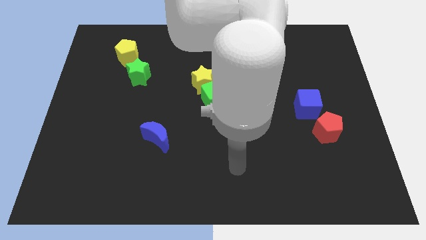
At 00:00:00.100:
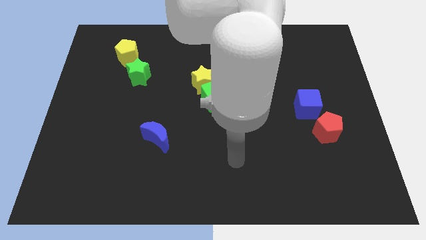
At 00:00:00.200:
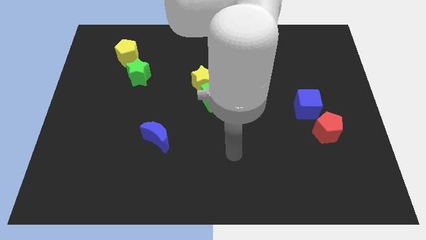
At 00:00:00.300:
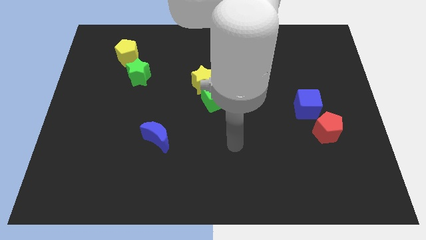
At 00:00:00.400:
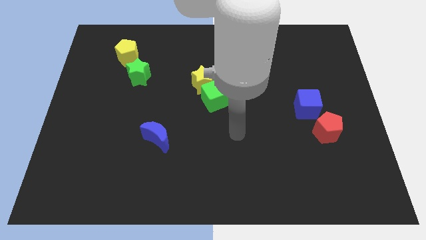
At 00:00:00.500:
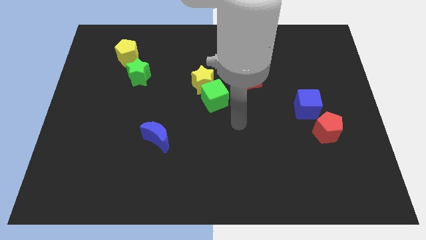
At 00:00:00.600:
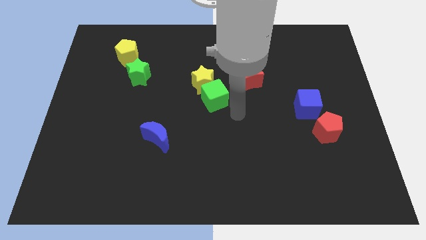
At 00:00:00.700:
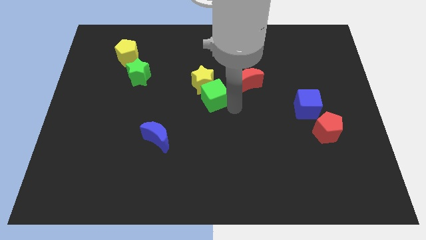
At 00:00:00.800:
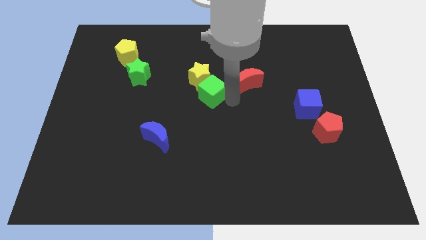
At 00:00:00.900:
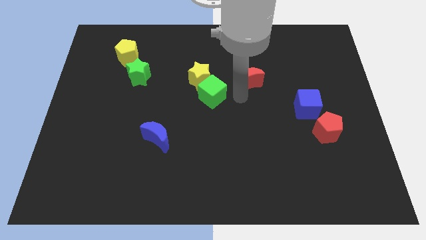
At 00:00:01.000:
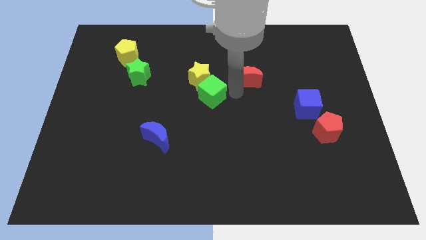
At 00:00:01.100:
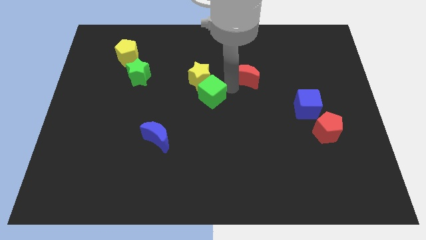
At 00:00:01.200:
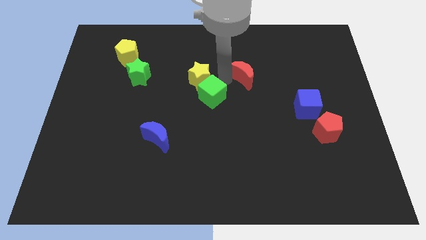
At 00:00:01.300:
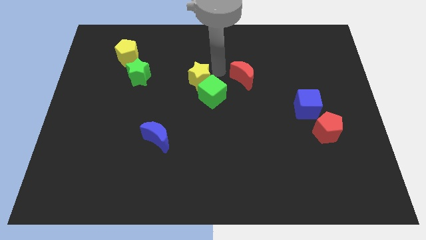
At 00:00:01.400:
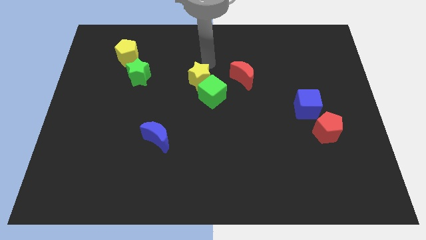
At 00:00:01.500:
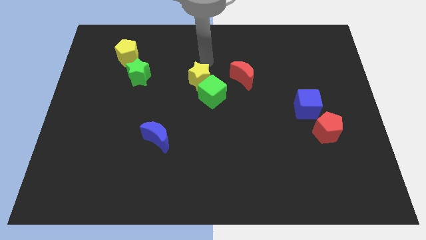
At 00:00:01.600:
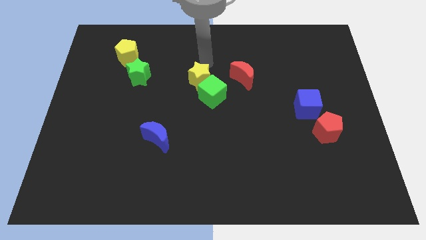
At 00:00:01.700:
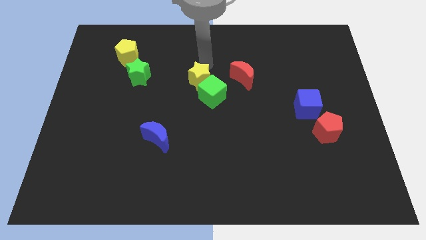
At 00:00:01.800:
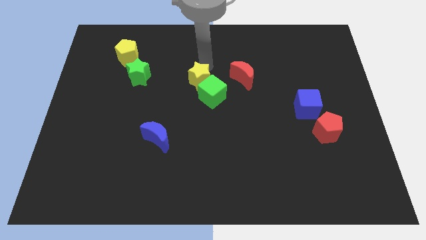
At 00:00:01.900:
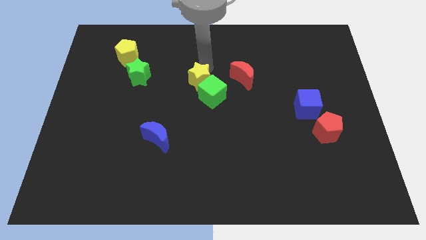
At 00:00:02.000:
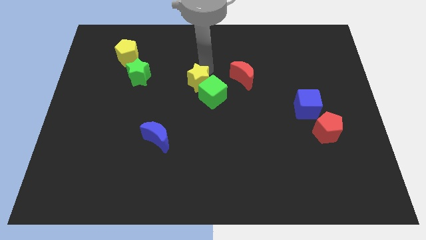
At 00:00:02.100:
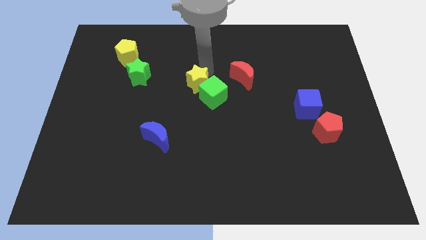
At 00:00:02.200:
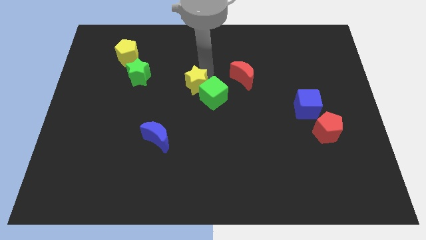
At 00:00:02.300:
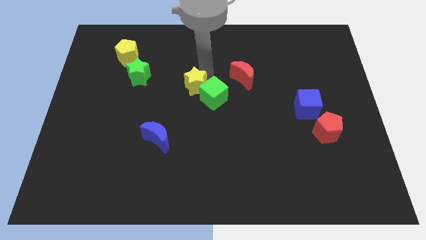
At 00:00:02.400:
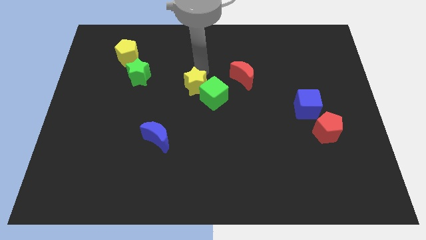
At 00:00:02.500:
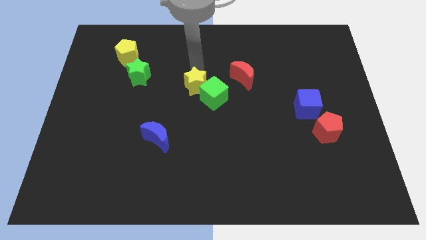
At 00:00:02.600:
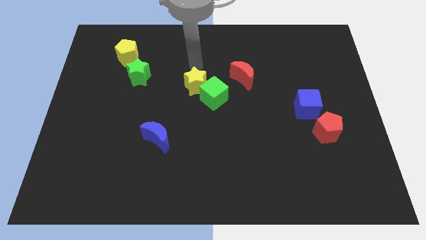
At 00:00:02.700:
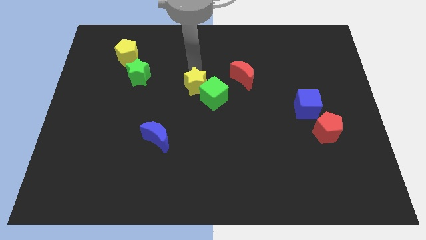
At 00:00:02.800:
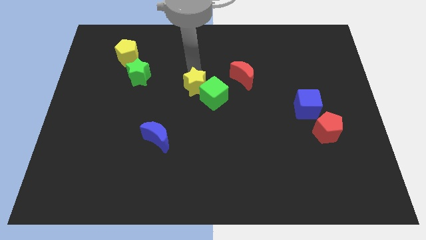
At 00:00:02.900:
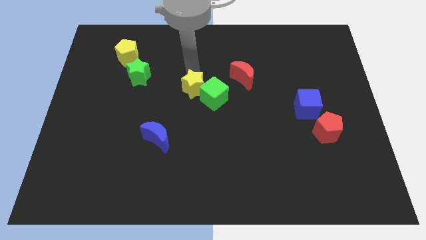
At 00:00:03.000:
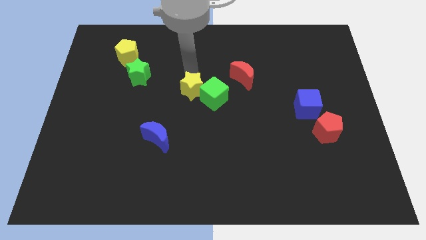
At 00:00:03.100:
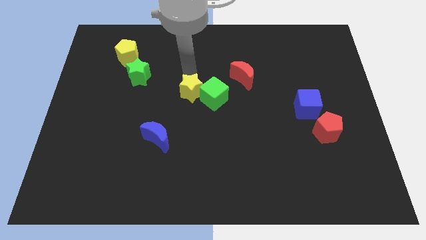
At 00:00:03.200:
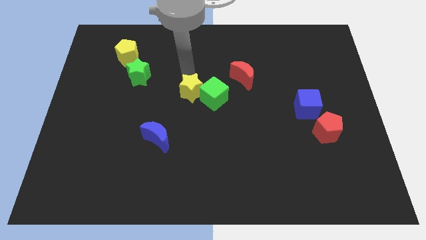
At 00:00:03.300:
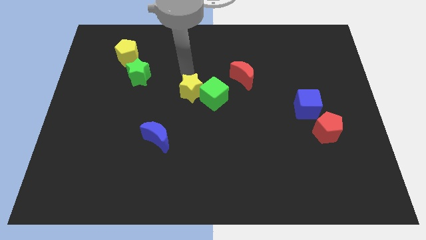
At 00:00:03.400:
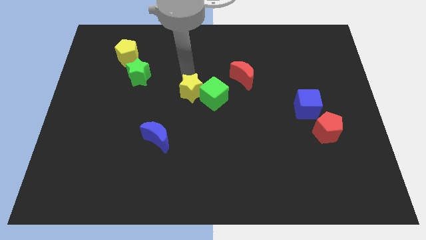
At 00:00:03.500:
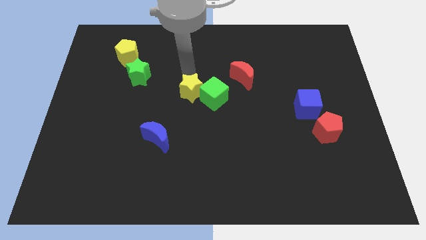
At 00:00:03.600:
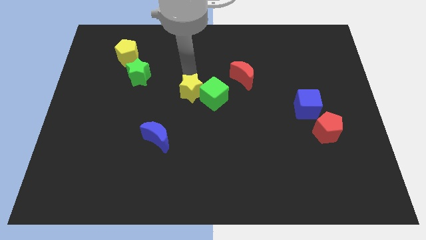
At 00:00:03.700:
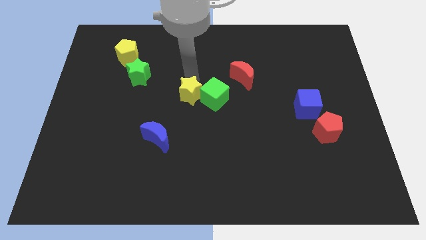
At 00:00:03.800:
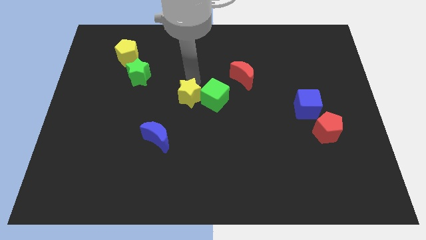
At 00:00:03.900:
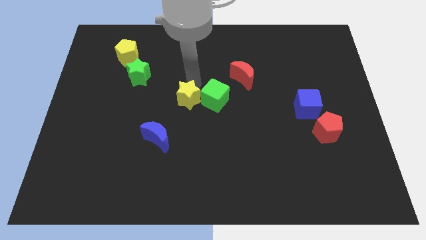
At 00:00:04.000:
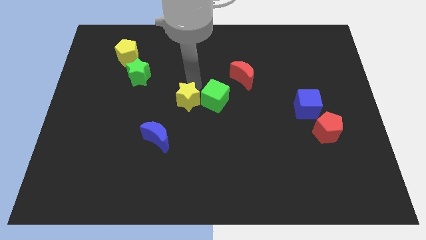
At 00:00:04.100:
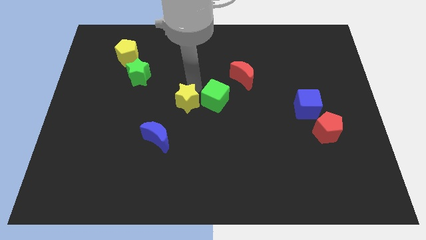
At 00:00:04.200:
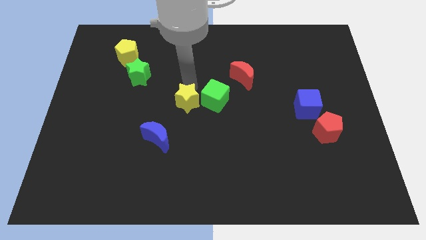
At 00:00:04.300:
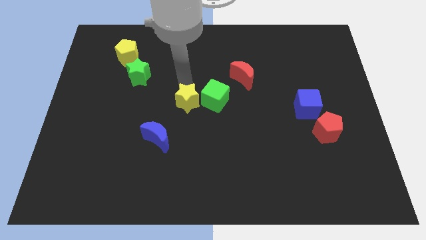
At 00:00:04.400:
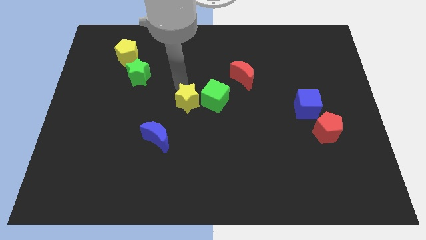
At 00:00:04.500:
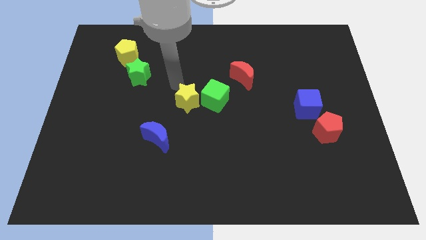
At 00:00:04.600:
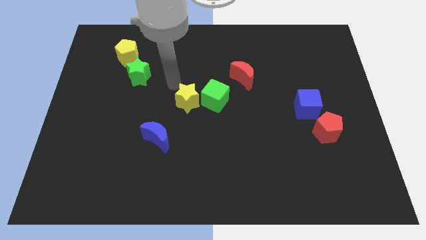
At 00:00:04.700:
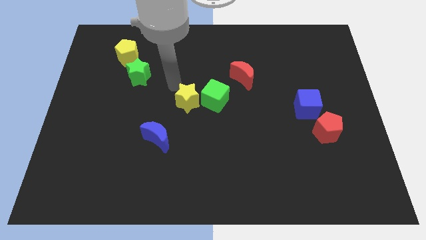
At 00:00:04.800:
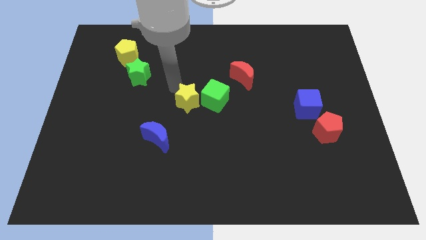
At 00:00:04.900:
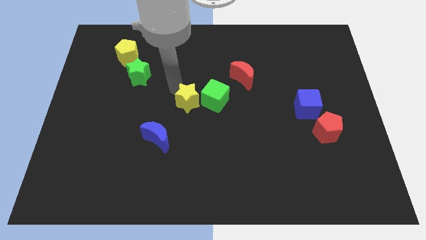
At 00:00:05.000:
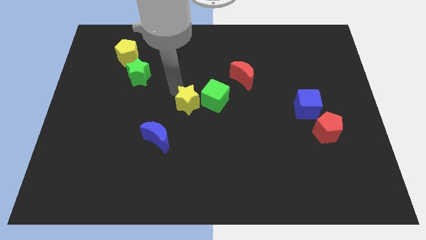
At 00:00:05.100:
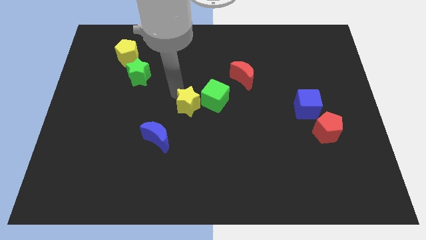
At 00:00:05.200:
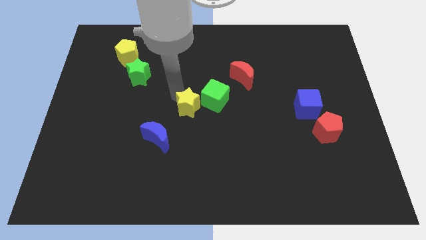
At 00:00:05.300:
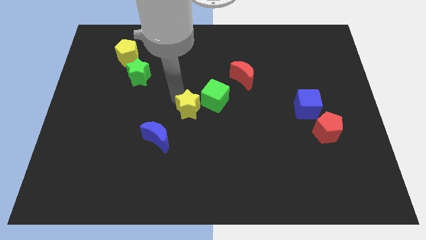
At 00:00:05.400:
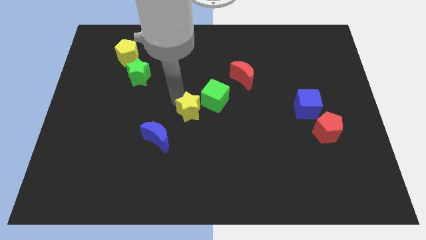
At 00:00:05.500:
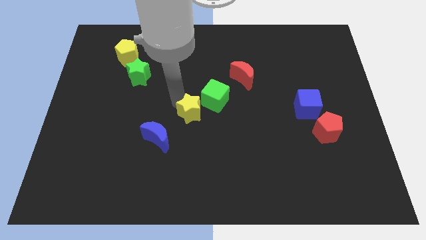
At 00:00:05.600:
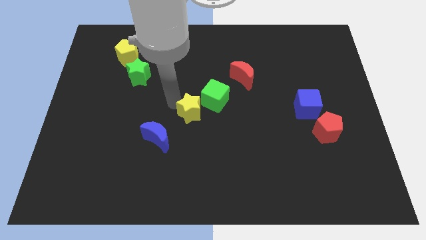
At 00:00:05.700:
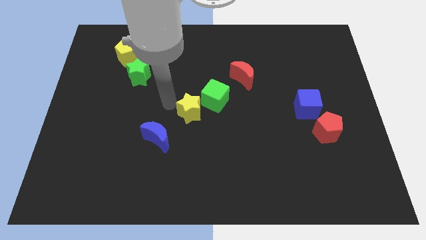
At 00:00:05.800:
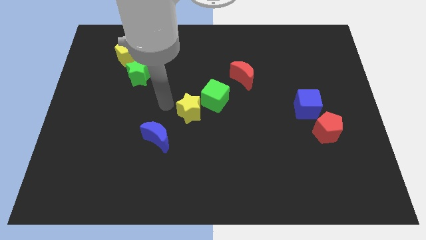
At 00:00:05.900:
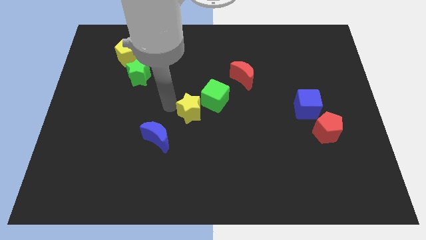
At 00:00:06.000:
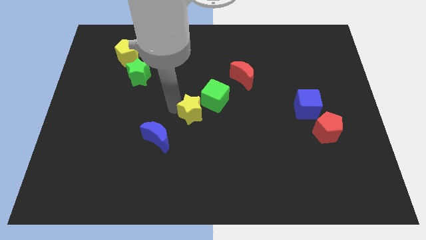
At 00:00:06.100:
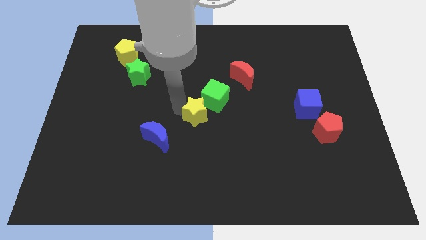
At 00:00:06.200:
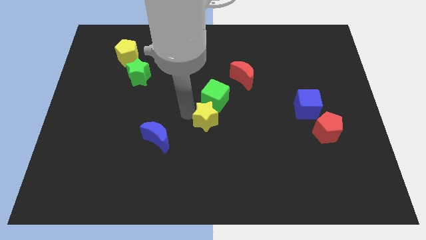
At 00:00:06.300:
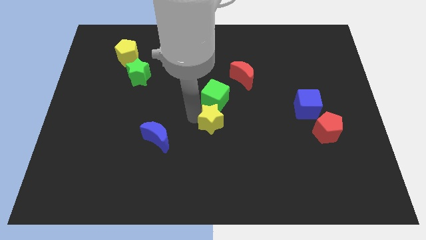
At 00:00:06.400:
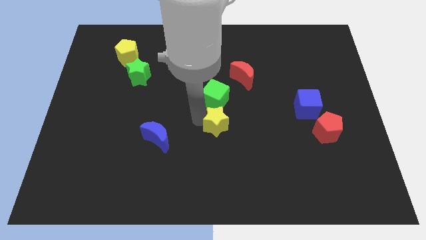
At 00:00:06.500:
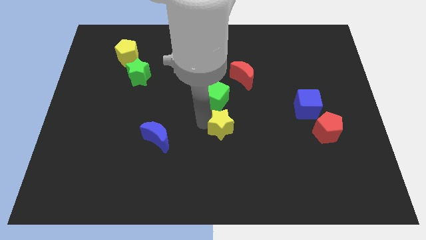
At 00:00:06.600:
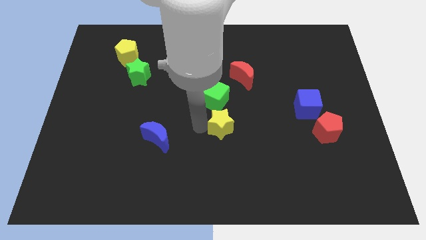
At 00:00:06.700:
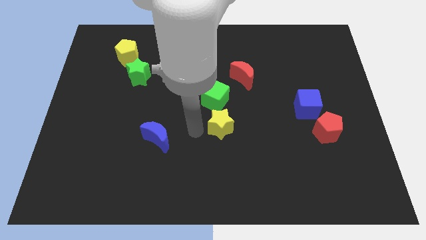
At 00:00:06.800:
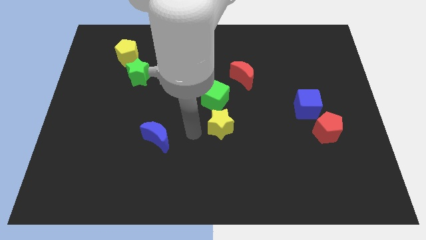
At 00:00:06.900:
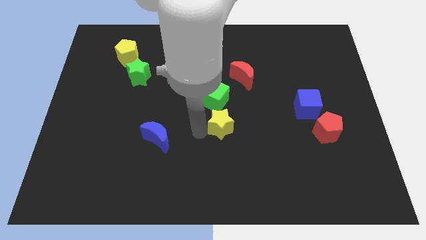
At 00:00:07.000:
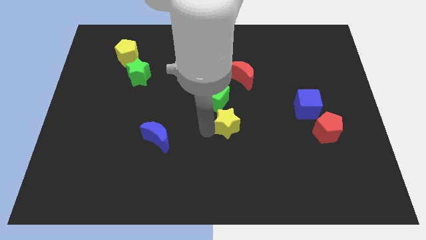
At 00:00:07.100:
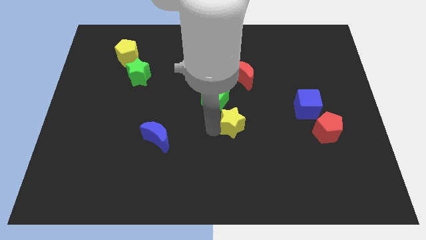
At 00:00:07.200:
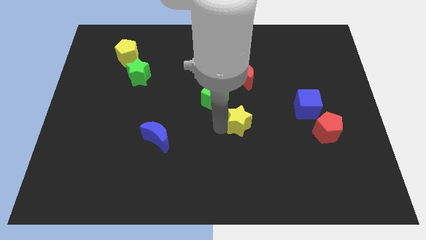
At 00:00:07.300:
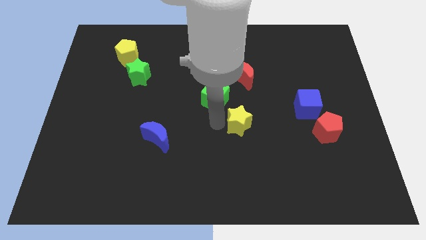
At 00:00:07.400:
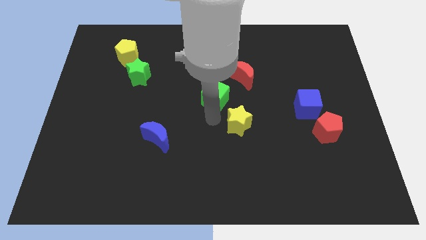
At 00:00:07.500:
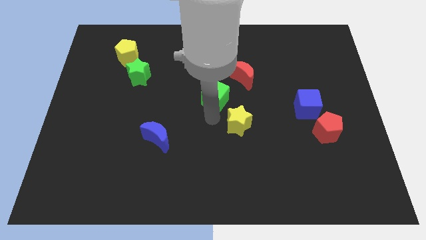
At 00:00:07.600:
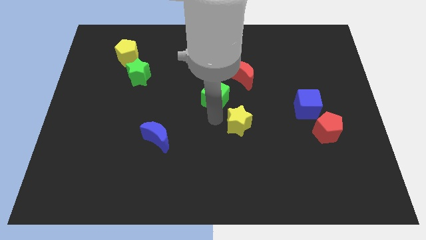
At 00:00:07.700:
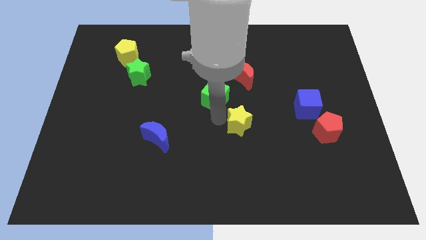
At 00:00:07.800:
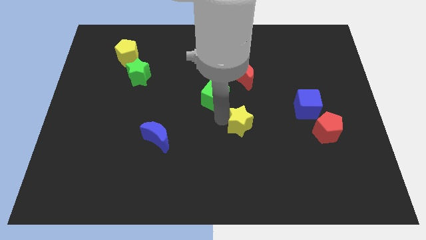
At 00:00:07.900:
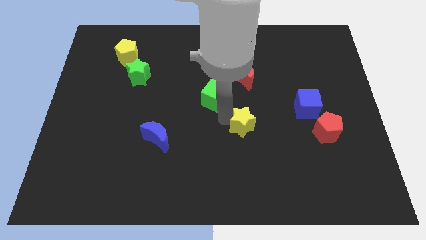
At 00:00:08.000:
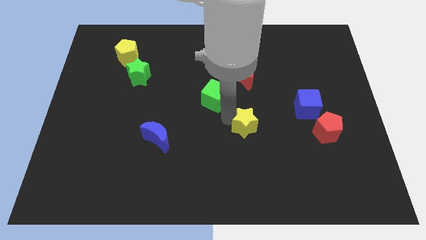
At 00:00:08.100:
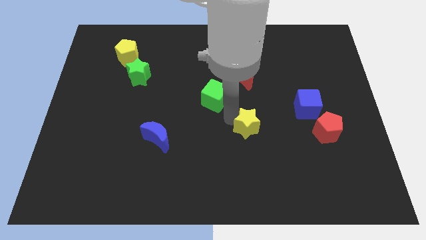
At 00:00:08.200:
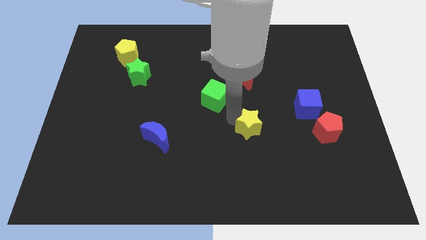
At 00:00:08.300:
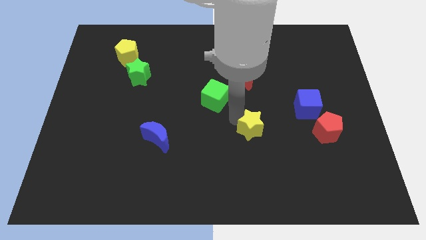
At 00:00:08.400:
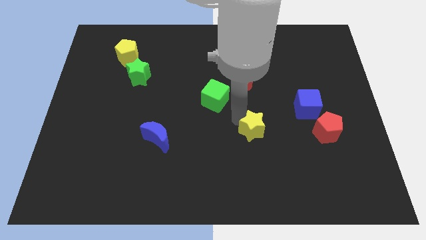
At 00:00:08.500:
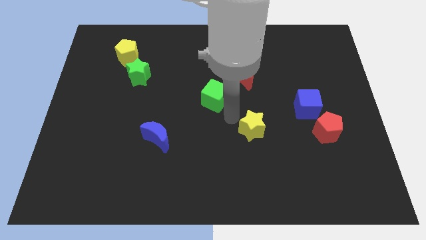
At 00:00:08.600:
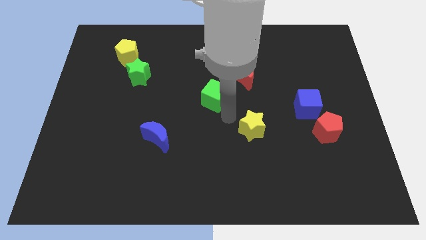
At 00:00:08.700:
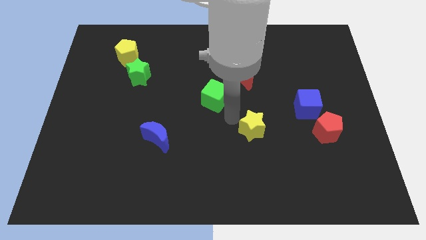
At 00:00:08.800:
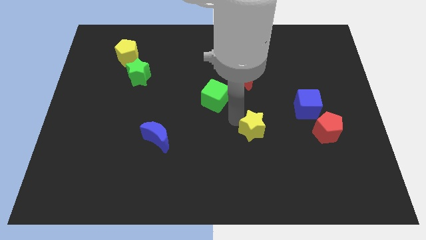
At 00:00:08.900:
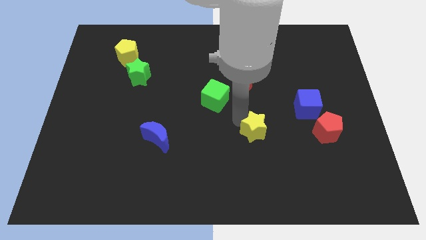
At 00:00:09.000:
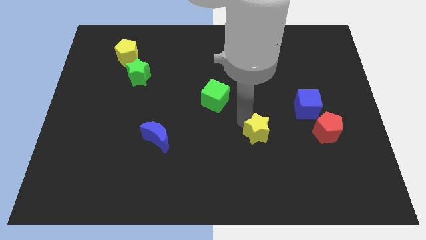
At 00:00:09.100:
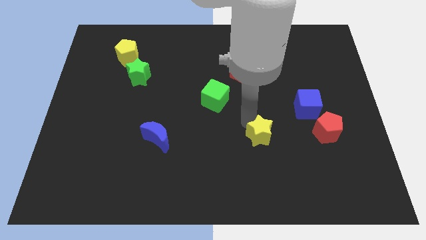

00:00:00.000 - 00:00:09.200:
move the yellow star diagonally downwards and to the right
